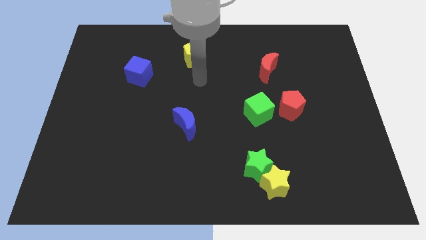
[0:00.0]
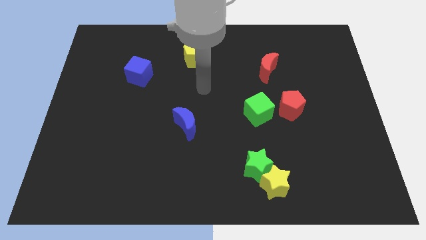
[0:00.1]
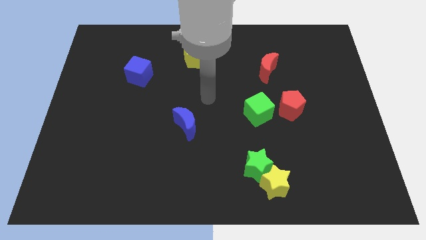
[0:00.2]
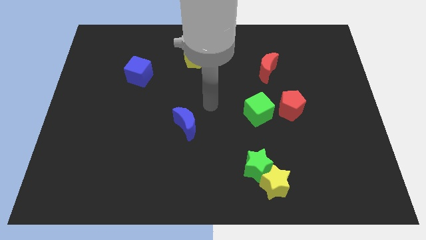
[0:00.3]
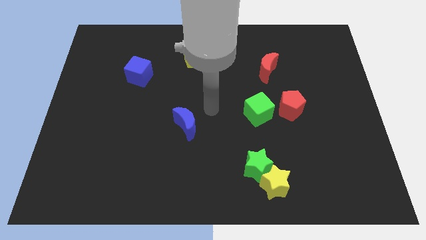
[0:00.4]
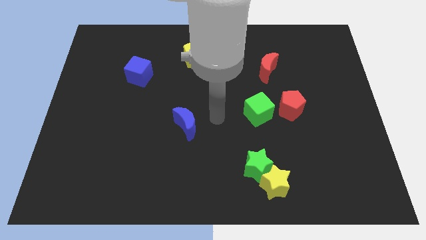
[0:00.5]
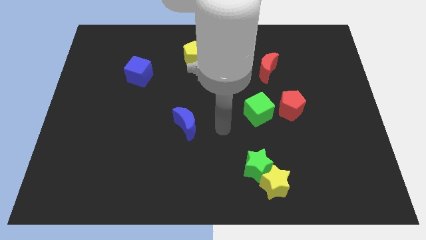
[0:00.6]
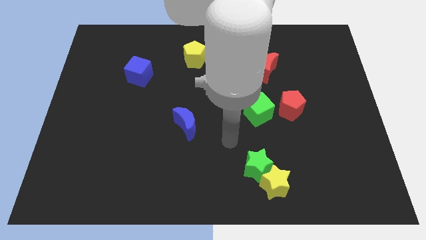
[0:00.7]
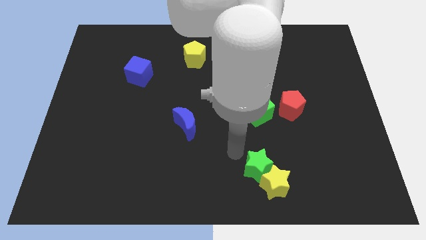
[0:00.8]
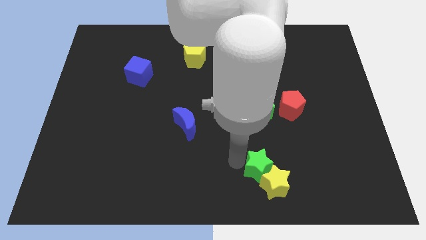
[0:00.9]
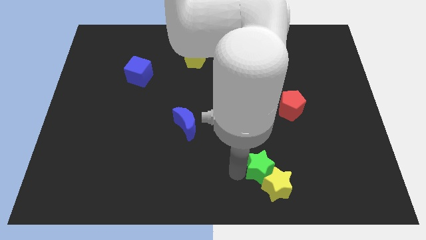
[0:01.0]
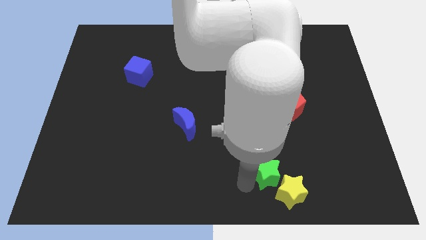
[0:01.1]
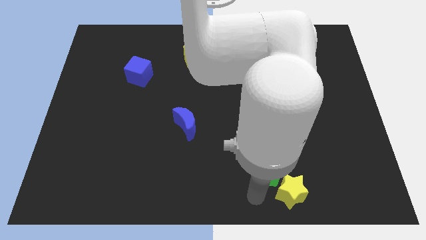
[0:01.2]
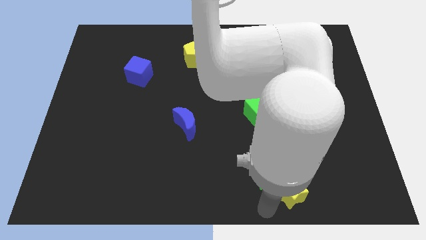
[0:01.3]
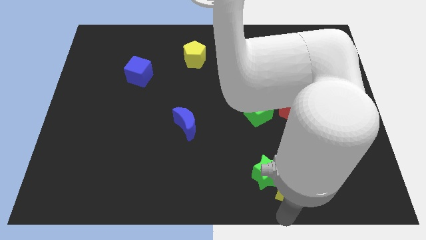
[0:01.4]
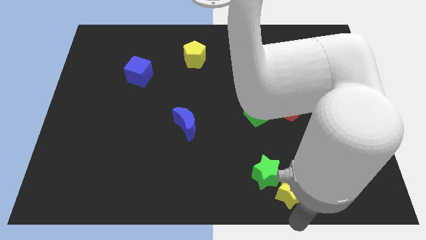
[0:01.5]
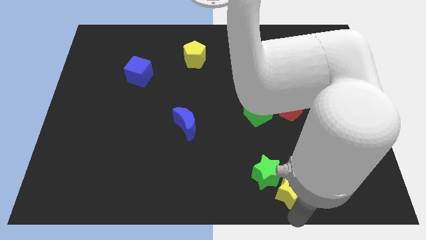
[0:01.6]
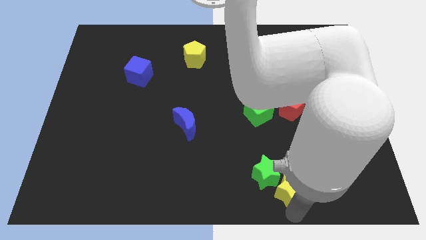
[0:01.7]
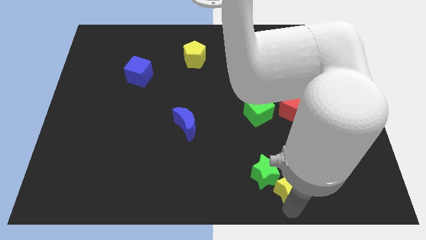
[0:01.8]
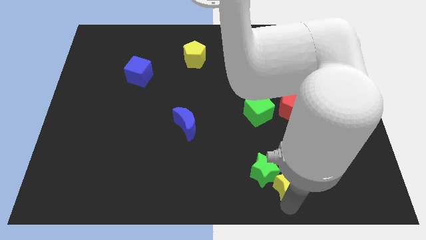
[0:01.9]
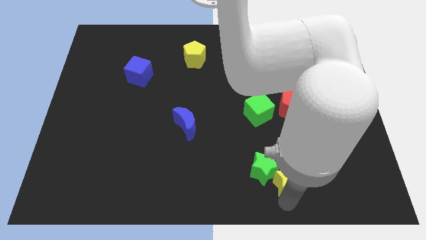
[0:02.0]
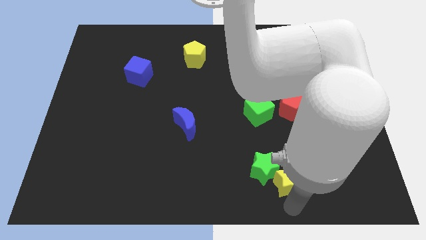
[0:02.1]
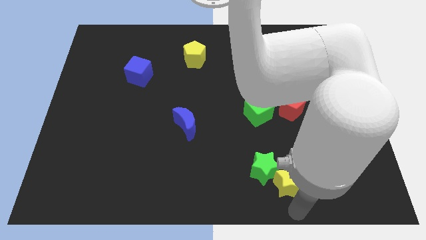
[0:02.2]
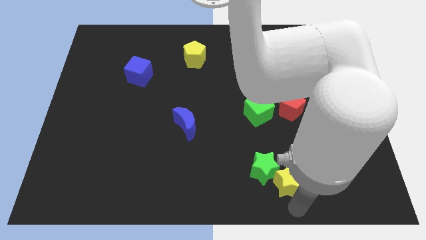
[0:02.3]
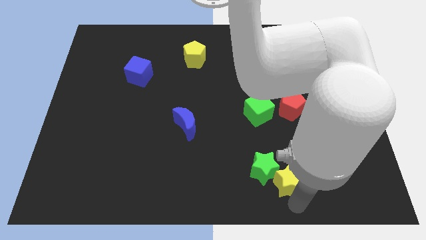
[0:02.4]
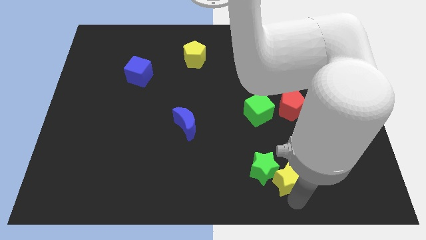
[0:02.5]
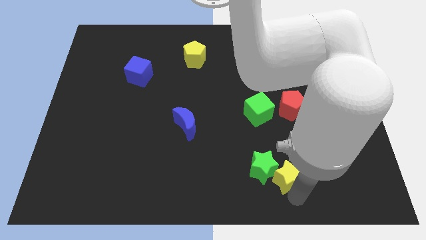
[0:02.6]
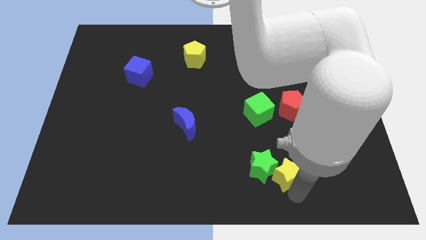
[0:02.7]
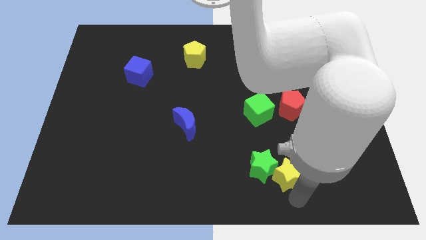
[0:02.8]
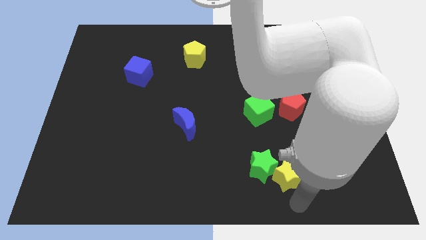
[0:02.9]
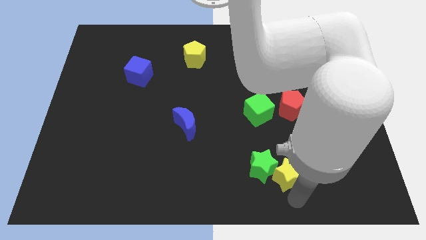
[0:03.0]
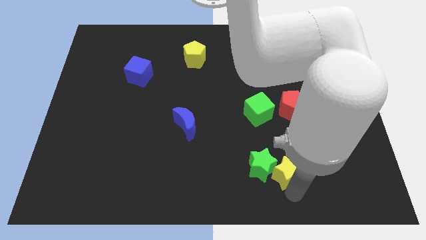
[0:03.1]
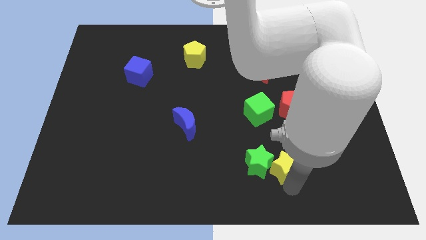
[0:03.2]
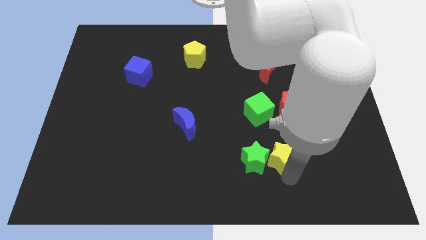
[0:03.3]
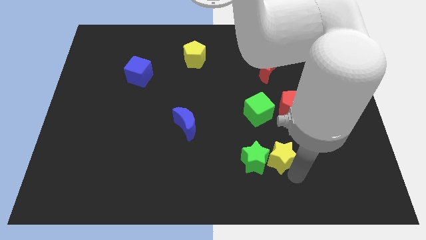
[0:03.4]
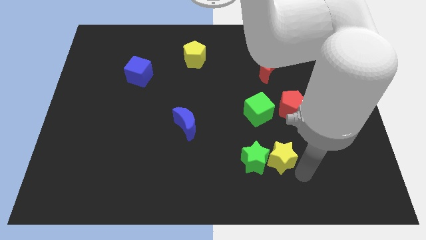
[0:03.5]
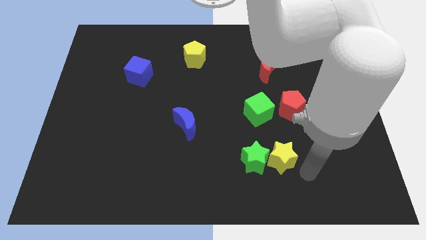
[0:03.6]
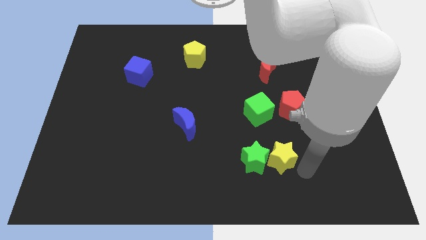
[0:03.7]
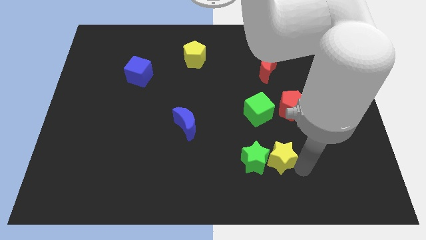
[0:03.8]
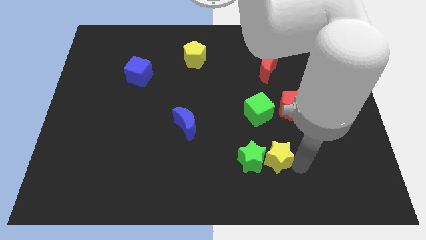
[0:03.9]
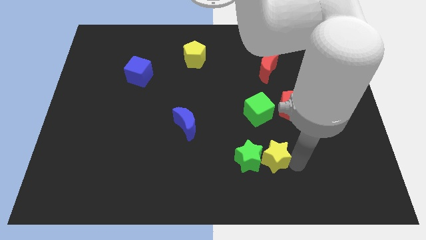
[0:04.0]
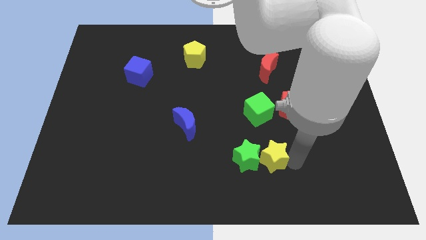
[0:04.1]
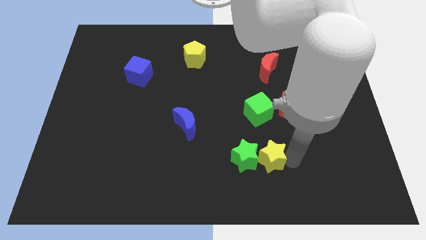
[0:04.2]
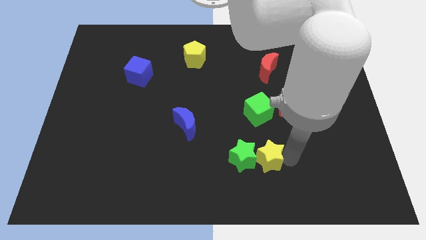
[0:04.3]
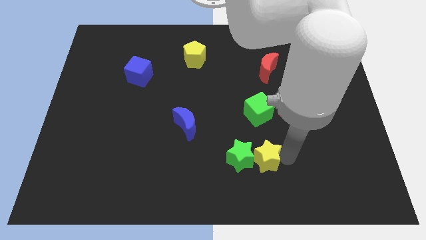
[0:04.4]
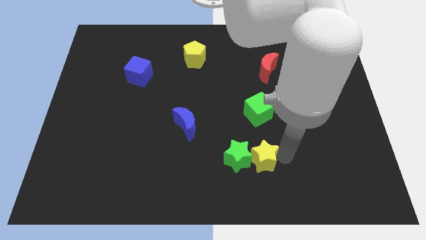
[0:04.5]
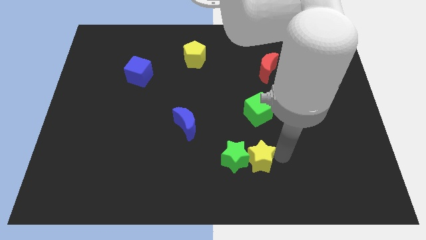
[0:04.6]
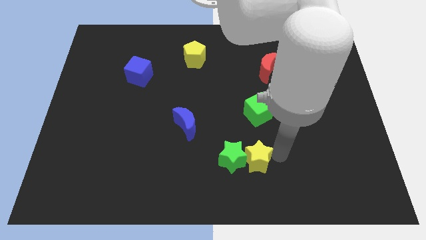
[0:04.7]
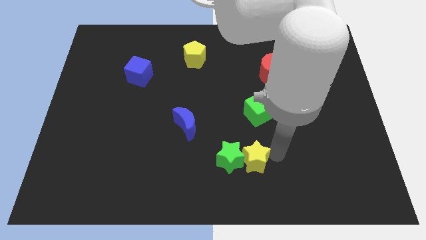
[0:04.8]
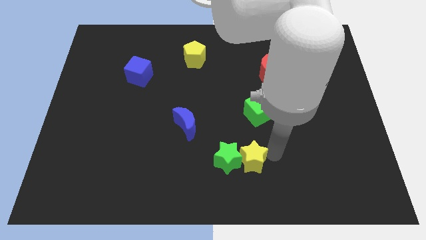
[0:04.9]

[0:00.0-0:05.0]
push the yellow star upwards and then to the left a little bit

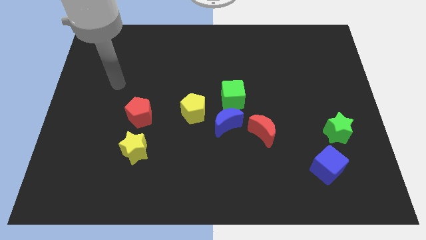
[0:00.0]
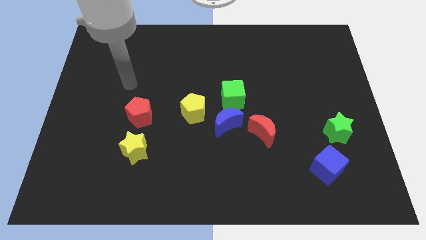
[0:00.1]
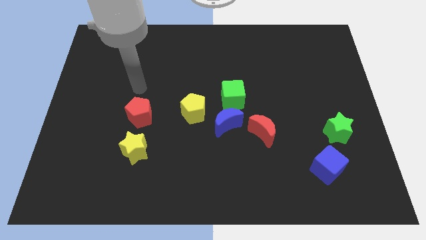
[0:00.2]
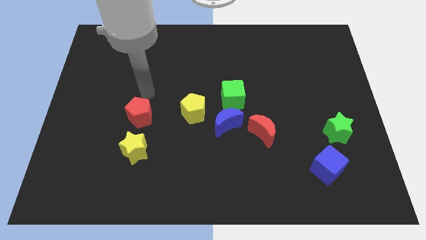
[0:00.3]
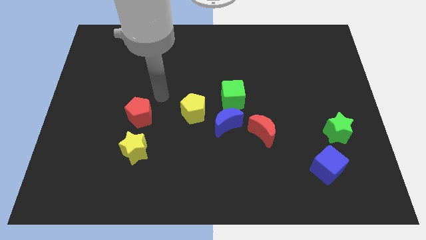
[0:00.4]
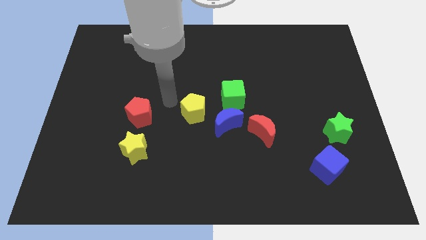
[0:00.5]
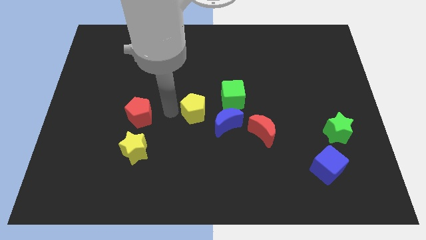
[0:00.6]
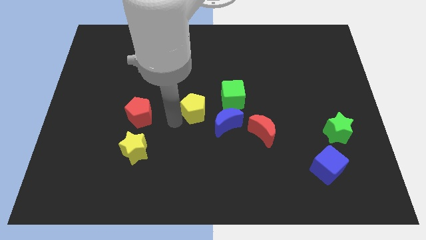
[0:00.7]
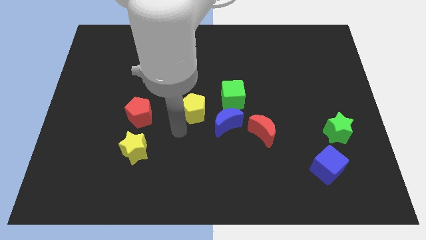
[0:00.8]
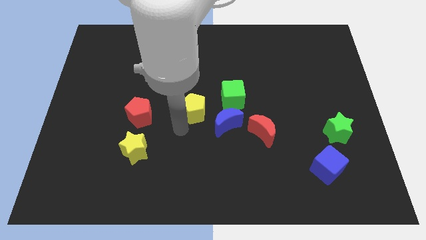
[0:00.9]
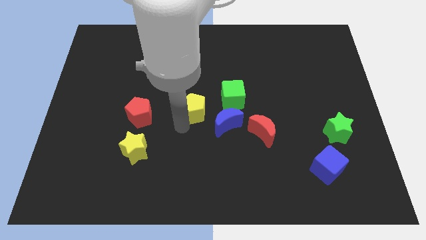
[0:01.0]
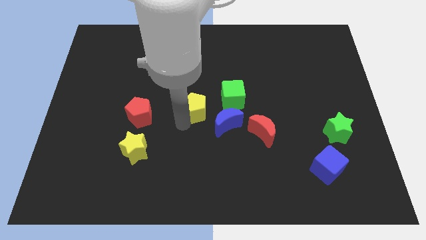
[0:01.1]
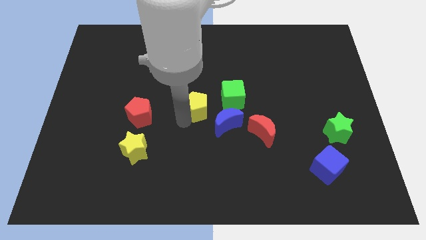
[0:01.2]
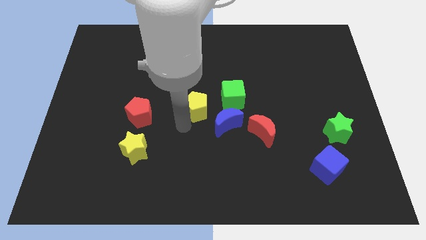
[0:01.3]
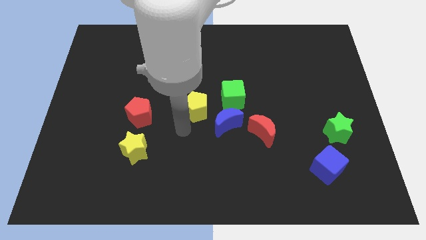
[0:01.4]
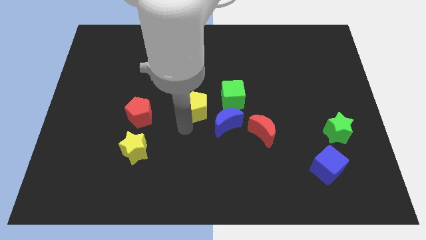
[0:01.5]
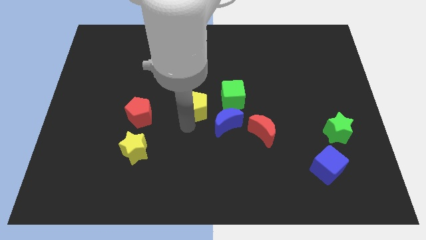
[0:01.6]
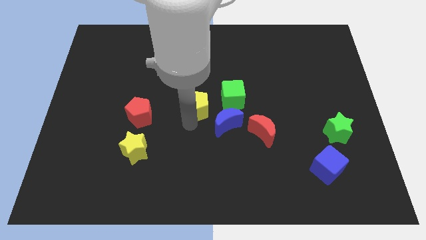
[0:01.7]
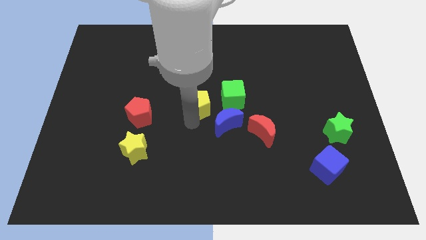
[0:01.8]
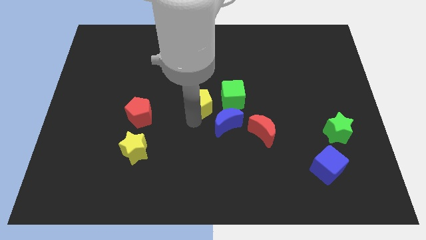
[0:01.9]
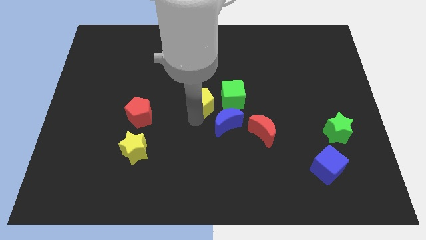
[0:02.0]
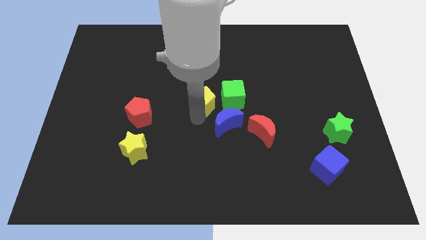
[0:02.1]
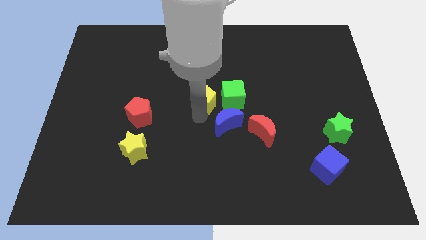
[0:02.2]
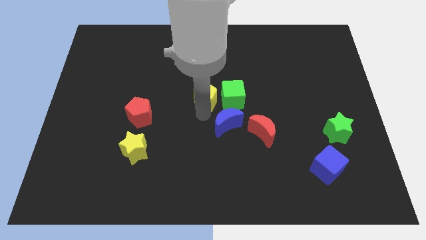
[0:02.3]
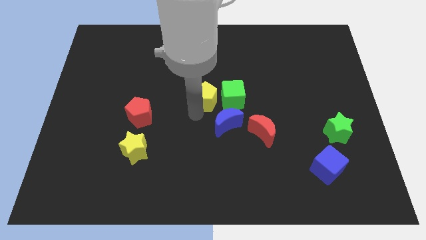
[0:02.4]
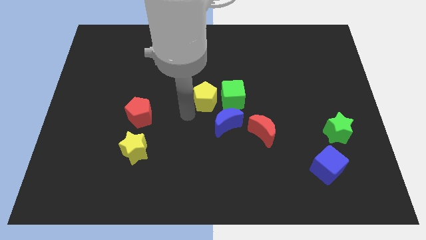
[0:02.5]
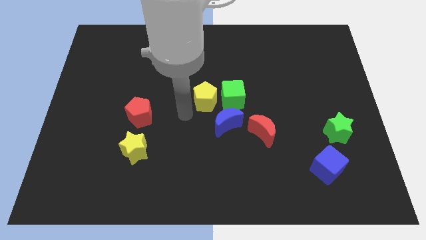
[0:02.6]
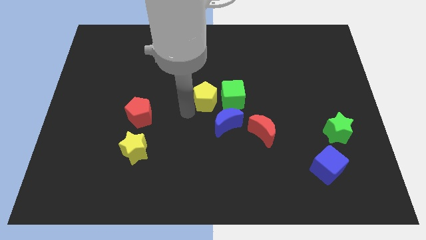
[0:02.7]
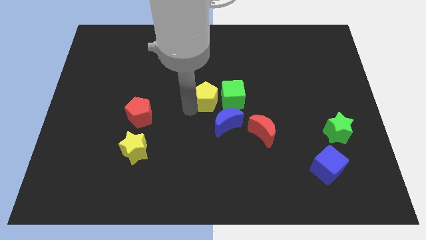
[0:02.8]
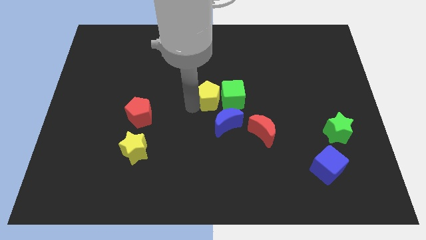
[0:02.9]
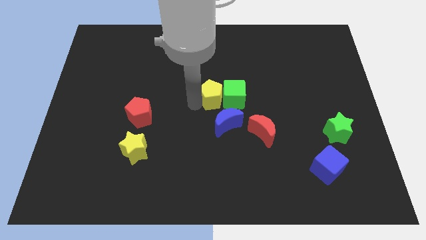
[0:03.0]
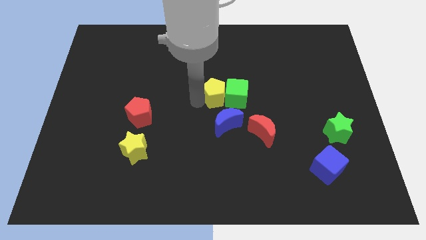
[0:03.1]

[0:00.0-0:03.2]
slightly slide the yellow pentagon upwards and to the right diagonally

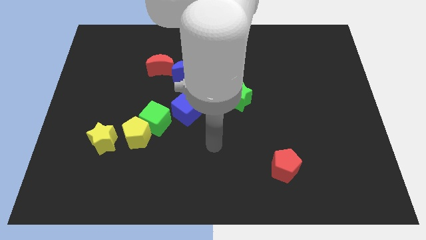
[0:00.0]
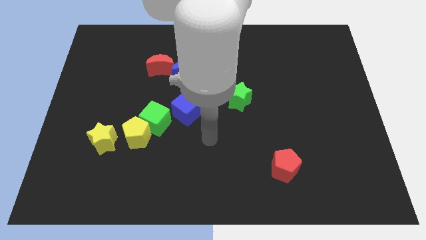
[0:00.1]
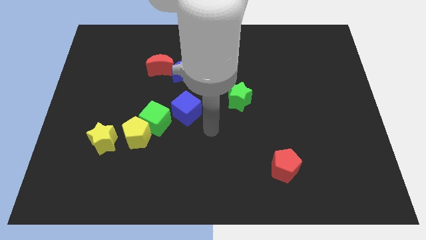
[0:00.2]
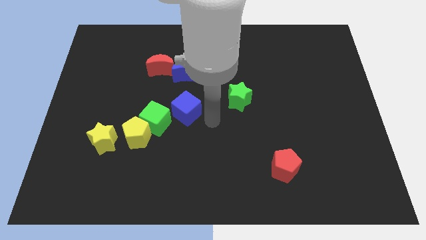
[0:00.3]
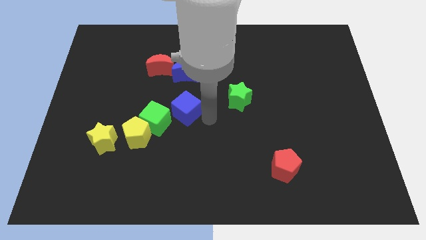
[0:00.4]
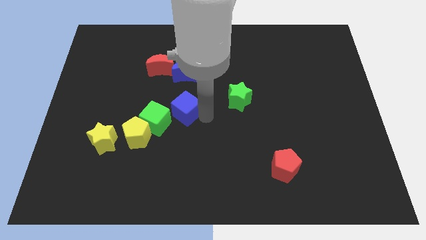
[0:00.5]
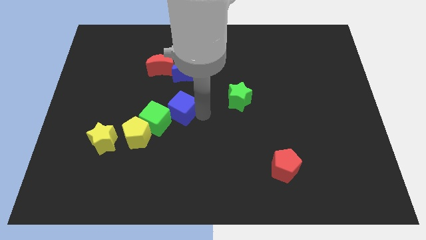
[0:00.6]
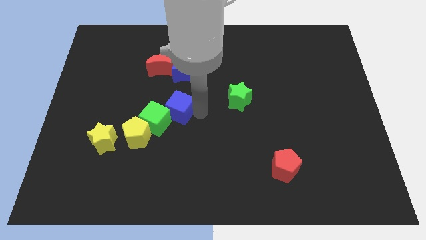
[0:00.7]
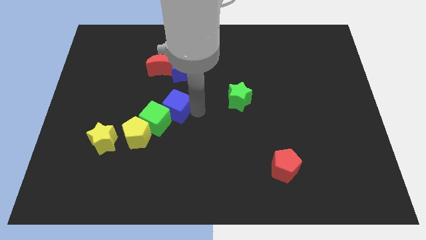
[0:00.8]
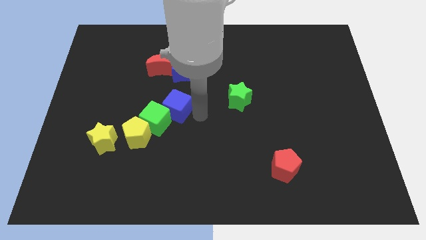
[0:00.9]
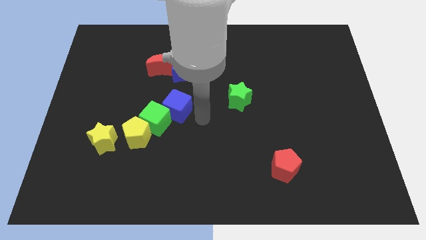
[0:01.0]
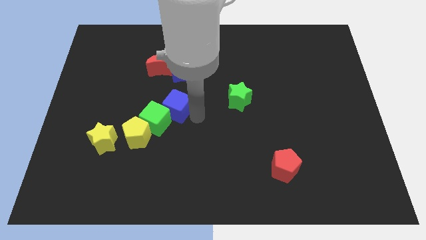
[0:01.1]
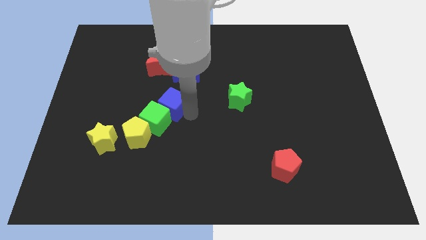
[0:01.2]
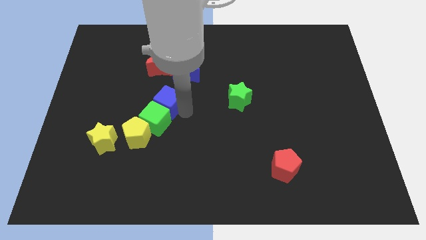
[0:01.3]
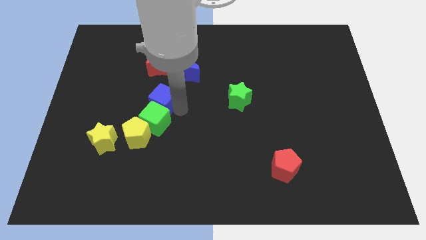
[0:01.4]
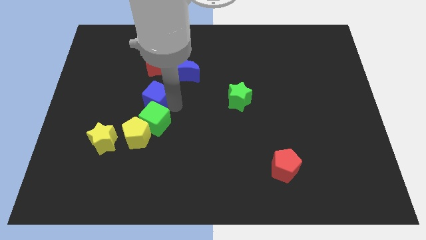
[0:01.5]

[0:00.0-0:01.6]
slide the blue cube to the left a bit
